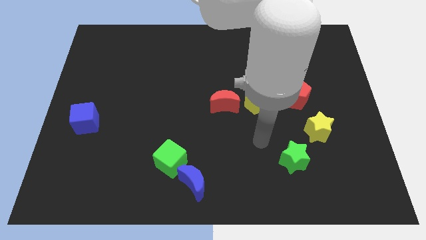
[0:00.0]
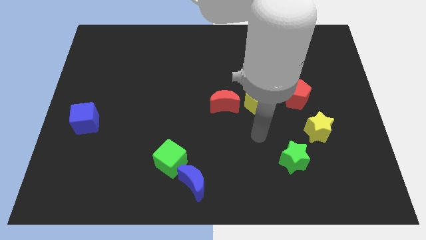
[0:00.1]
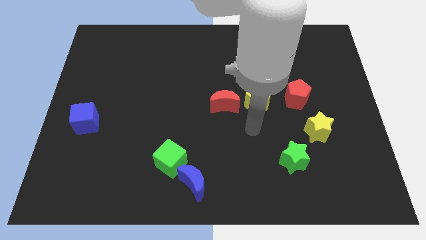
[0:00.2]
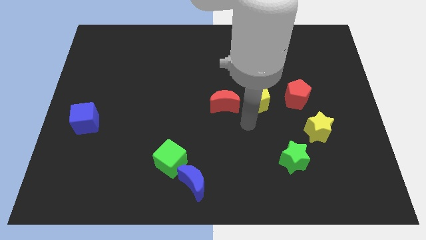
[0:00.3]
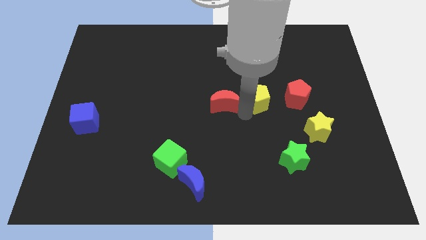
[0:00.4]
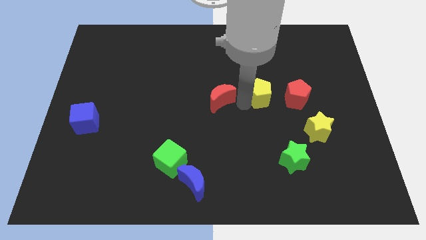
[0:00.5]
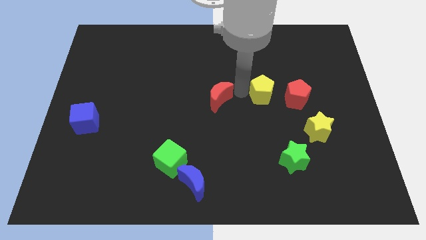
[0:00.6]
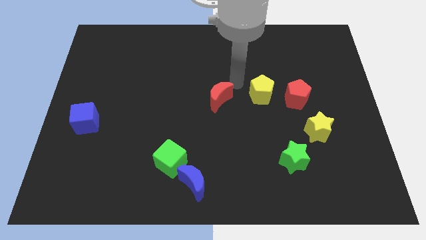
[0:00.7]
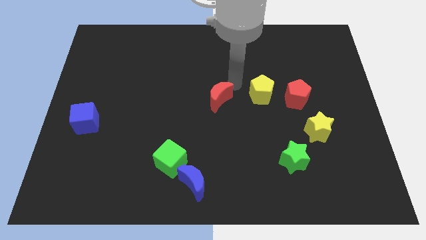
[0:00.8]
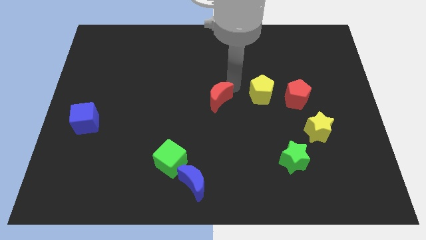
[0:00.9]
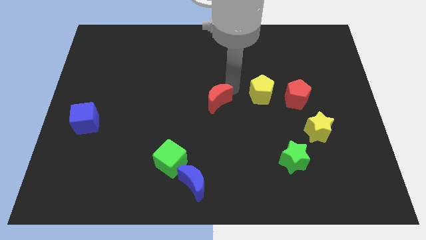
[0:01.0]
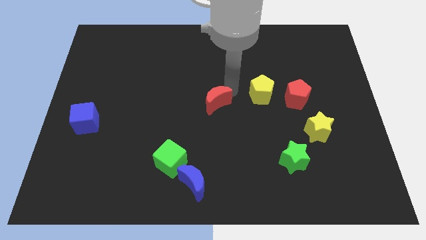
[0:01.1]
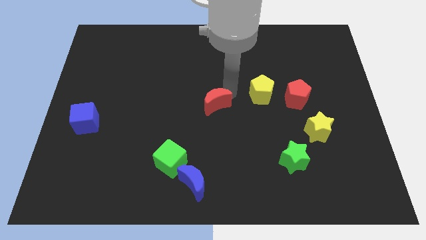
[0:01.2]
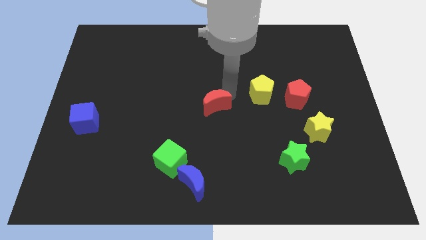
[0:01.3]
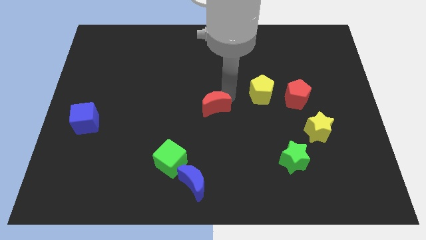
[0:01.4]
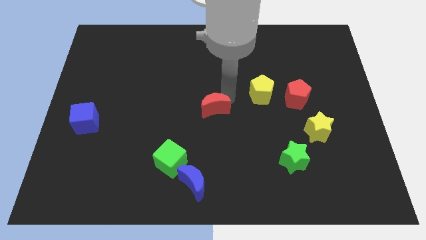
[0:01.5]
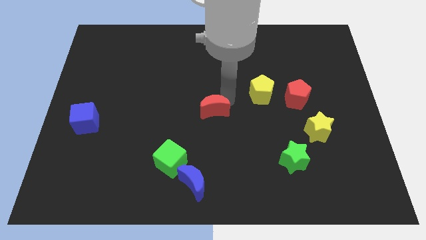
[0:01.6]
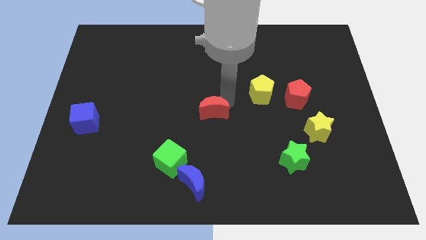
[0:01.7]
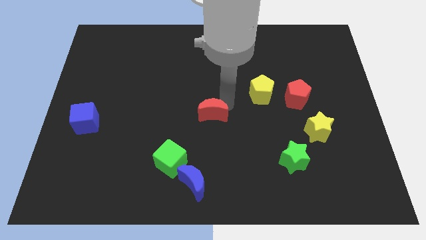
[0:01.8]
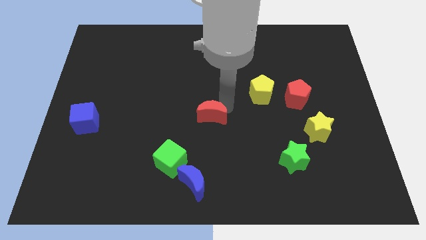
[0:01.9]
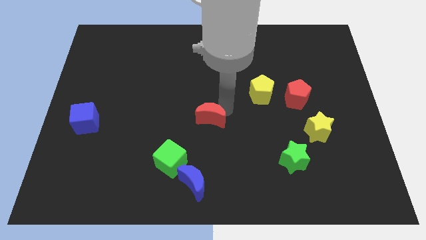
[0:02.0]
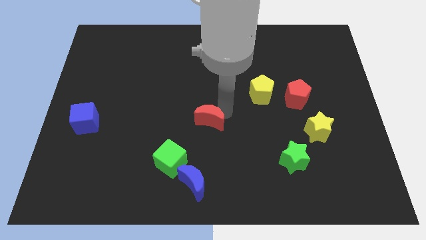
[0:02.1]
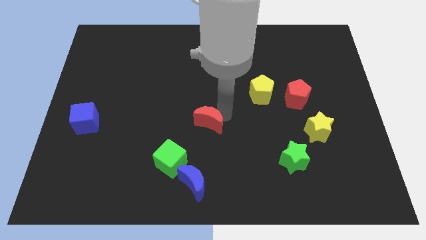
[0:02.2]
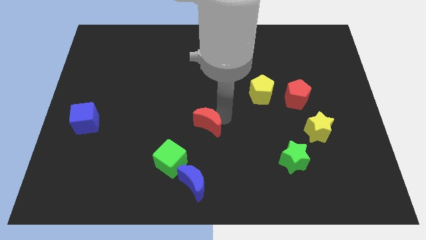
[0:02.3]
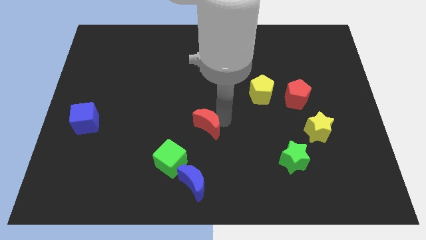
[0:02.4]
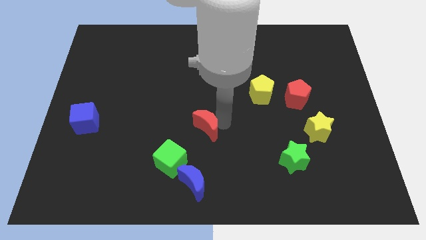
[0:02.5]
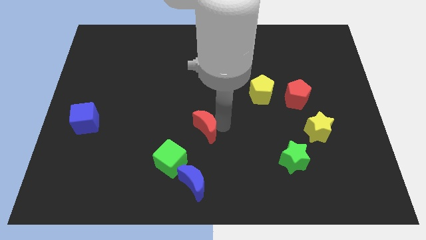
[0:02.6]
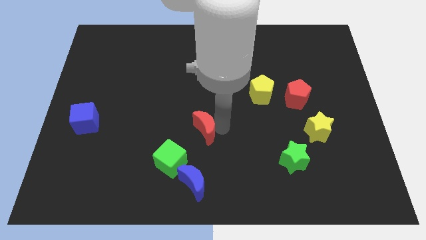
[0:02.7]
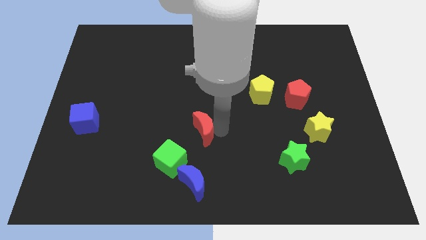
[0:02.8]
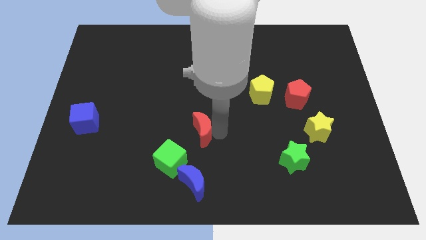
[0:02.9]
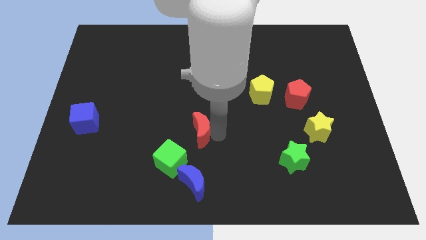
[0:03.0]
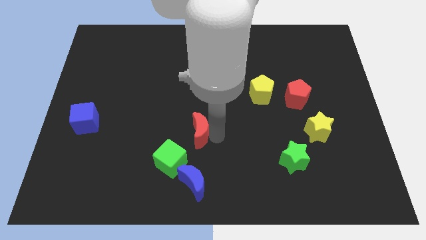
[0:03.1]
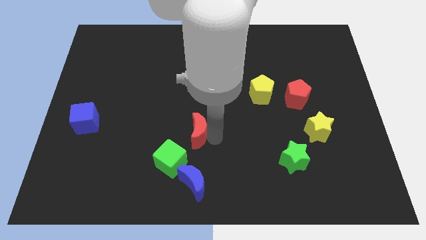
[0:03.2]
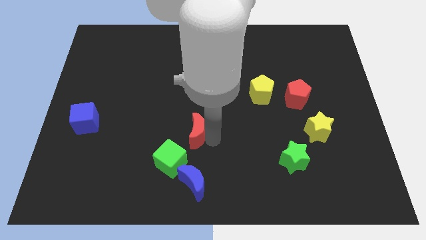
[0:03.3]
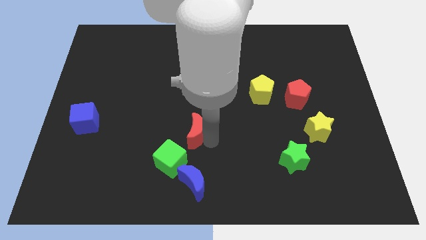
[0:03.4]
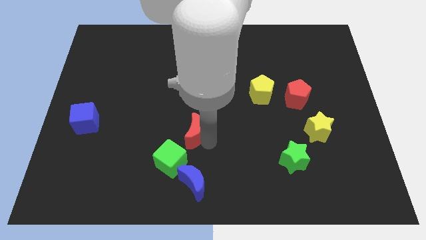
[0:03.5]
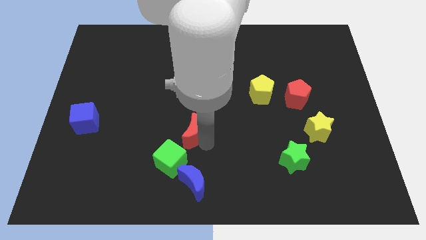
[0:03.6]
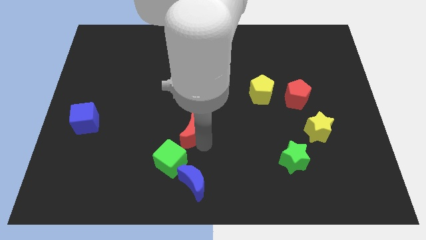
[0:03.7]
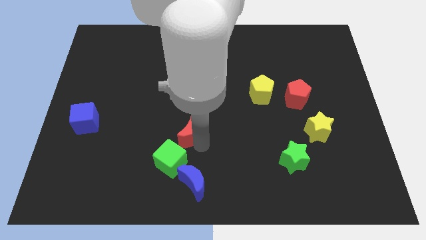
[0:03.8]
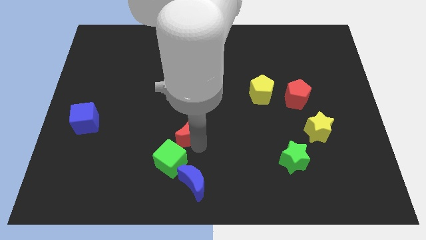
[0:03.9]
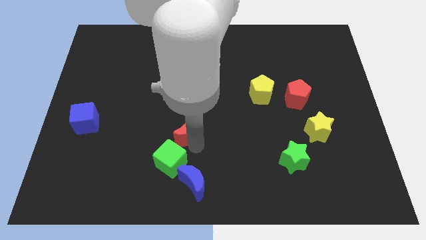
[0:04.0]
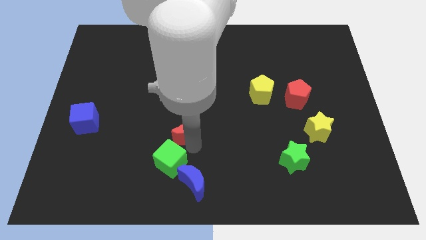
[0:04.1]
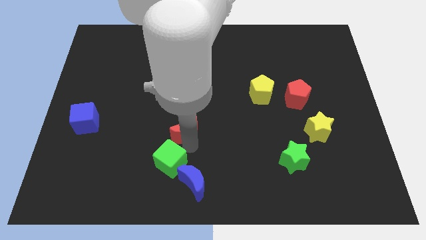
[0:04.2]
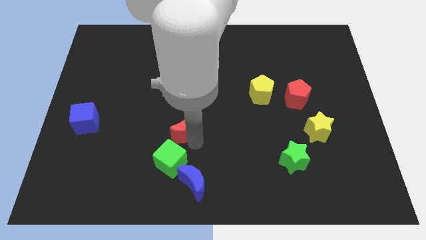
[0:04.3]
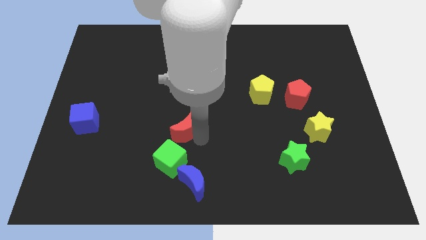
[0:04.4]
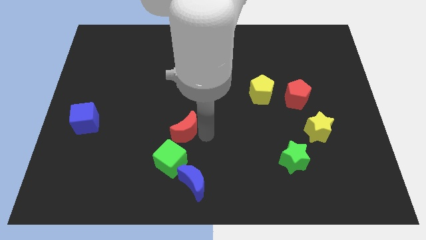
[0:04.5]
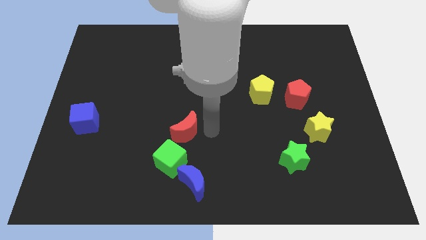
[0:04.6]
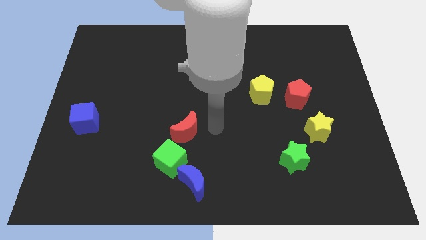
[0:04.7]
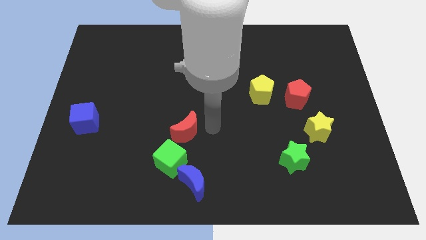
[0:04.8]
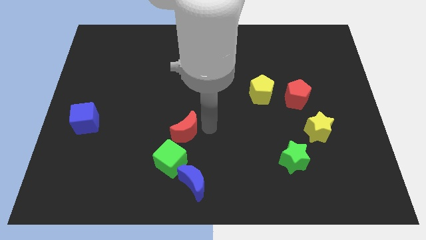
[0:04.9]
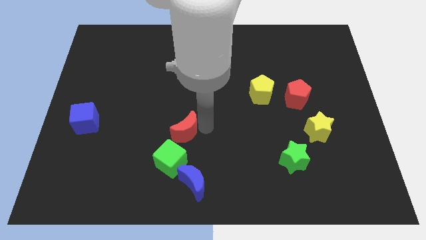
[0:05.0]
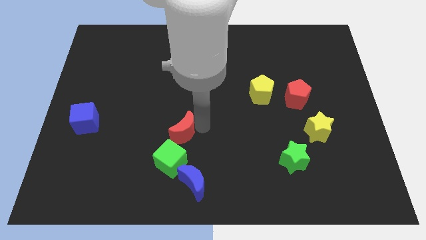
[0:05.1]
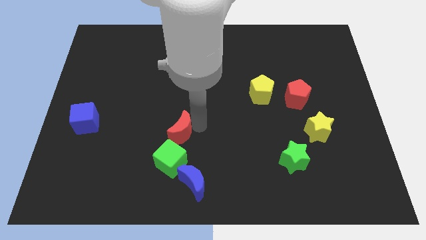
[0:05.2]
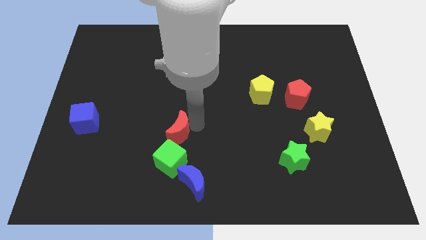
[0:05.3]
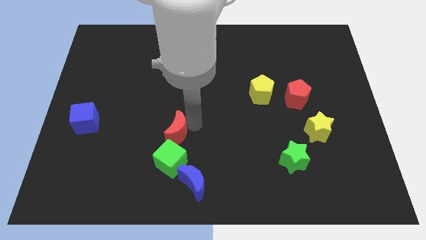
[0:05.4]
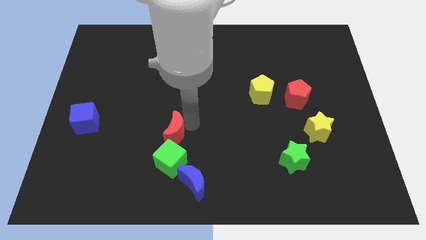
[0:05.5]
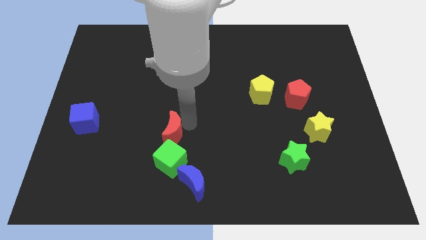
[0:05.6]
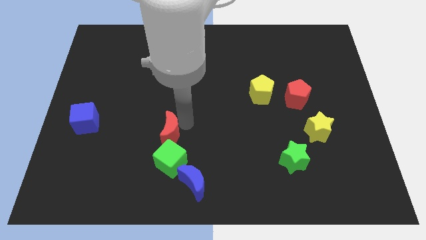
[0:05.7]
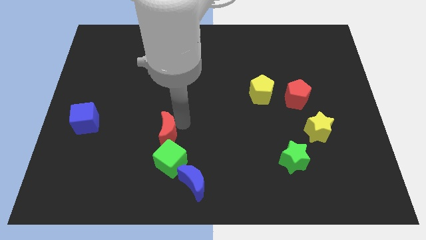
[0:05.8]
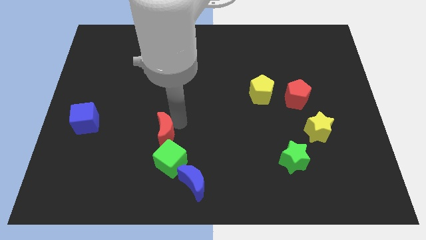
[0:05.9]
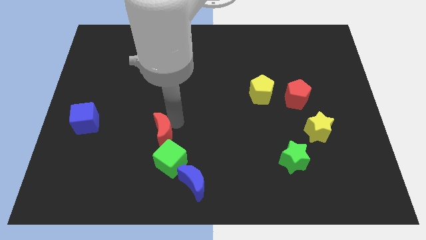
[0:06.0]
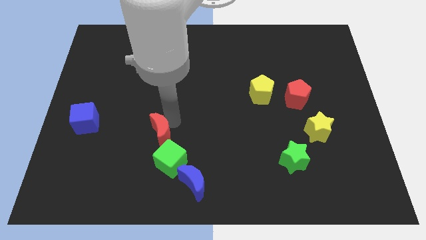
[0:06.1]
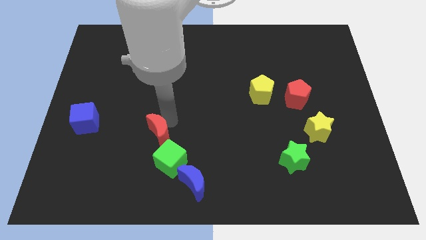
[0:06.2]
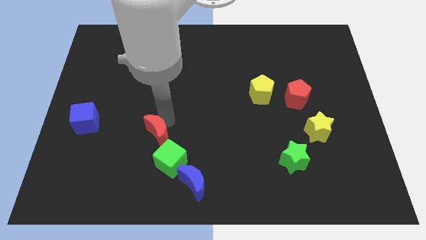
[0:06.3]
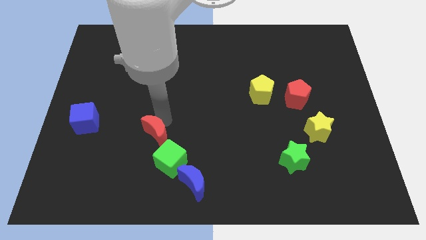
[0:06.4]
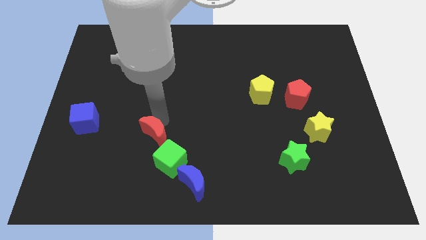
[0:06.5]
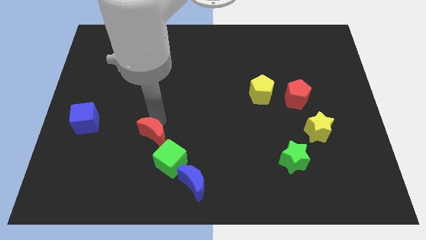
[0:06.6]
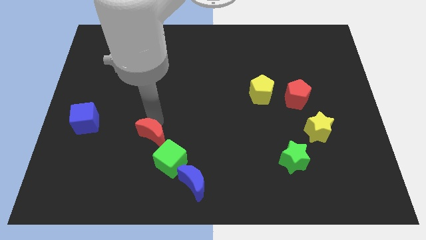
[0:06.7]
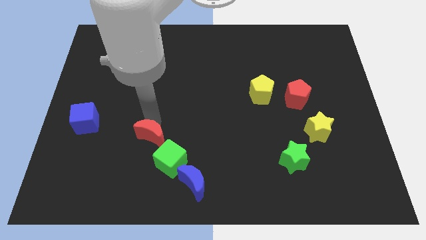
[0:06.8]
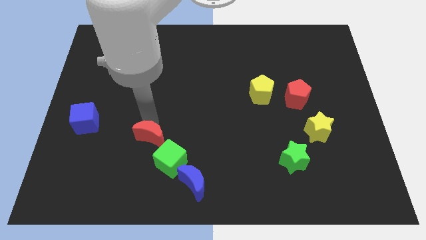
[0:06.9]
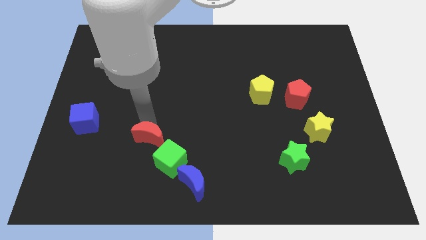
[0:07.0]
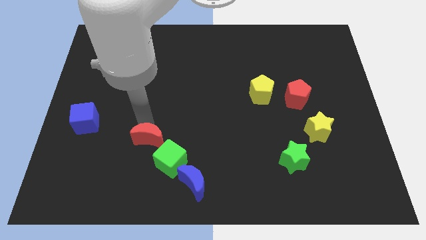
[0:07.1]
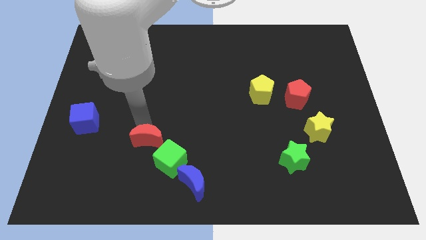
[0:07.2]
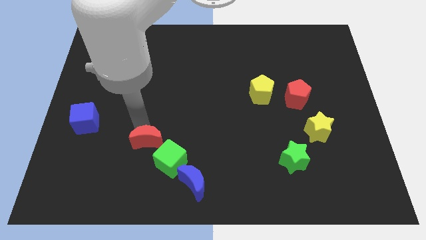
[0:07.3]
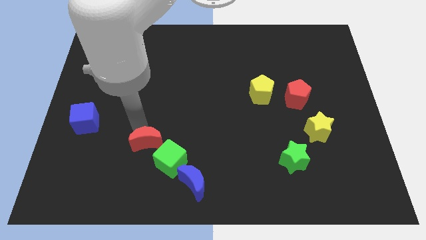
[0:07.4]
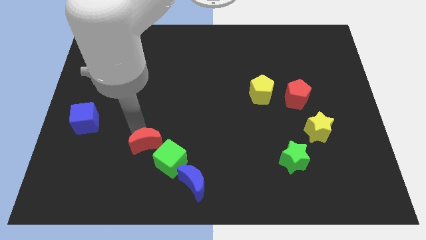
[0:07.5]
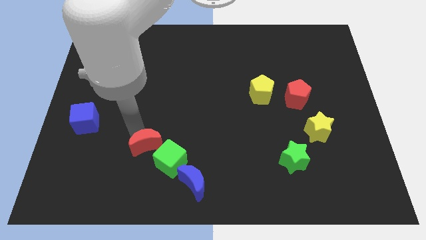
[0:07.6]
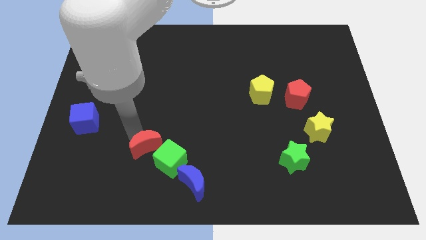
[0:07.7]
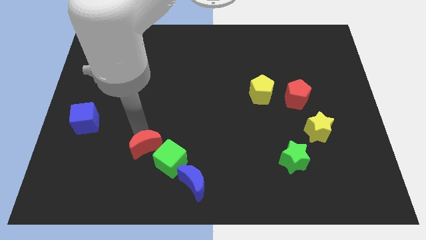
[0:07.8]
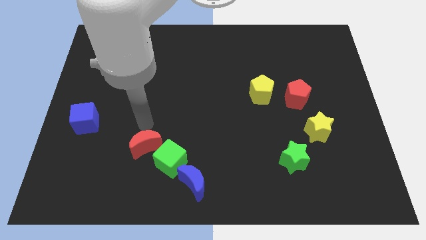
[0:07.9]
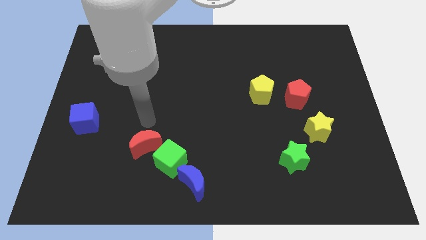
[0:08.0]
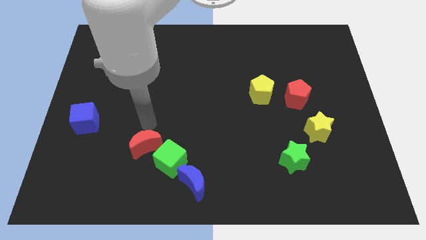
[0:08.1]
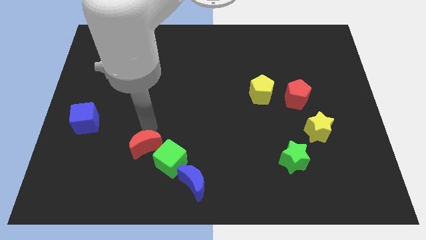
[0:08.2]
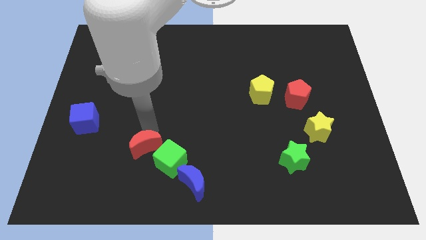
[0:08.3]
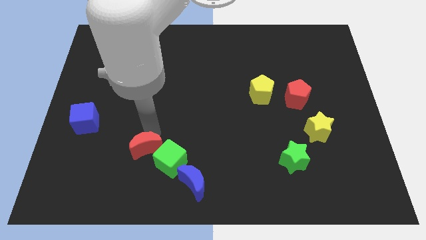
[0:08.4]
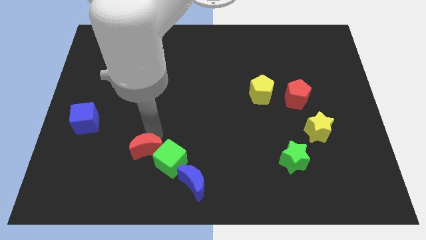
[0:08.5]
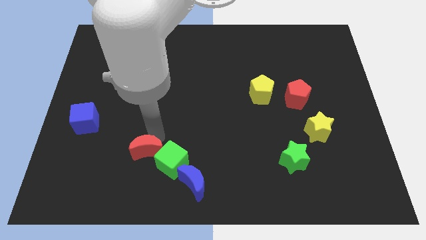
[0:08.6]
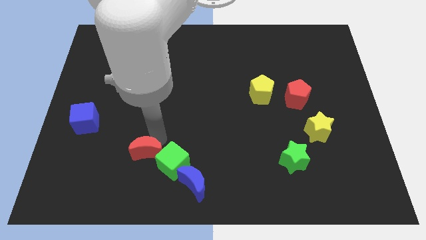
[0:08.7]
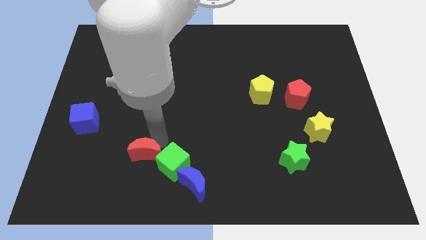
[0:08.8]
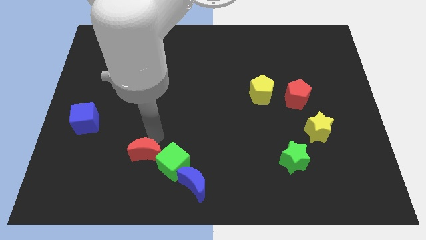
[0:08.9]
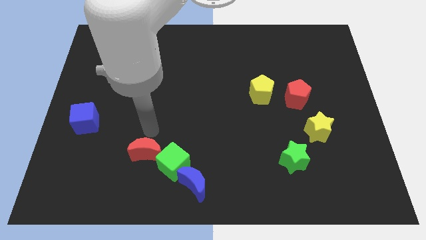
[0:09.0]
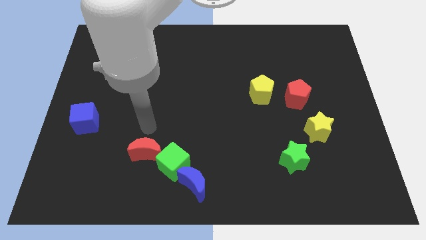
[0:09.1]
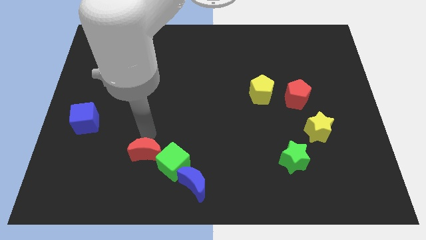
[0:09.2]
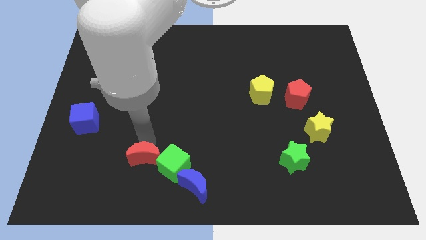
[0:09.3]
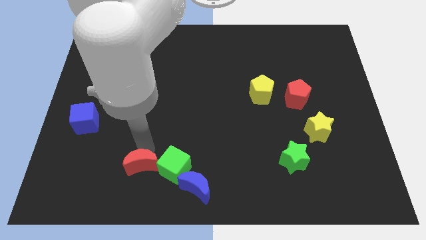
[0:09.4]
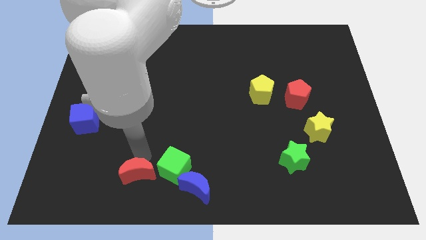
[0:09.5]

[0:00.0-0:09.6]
push the red moon to the bottom left of the green cube
